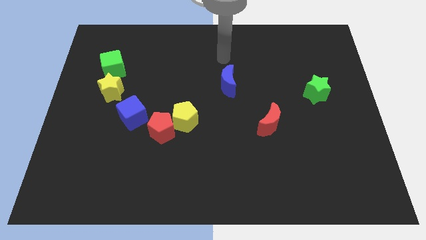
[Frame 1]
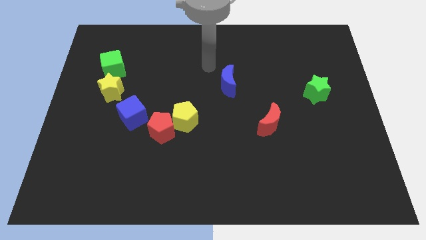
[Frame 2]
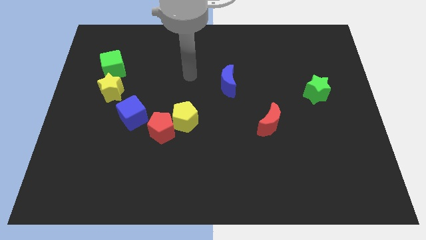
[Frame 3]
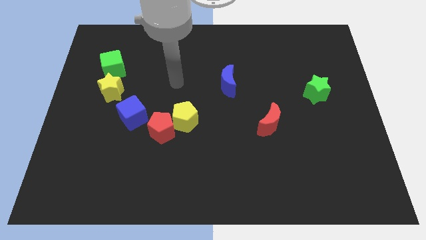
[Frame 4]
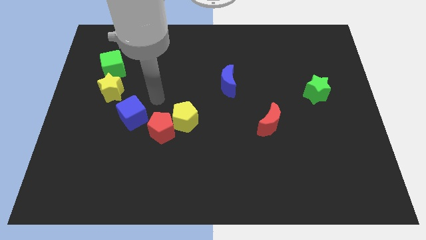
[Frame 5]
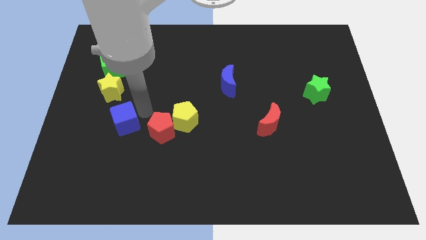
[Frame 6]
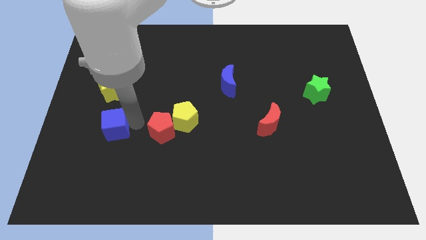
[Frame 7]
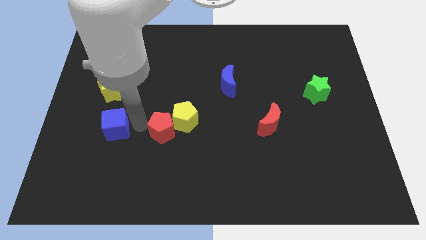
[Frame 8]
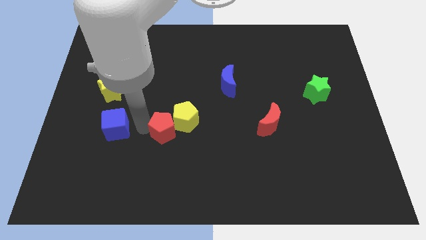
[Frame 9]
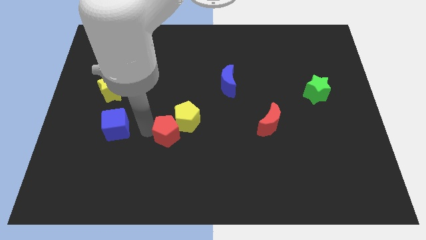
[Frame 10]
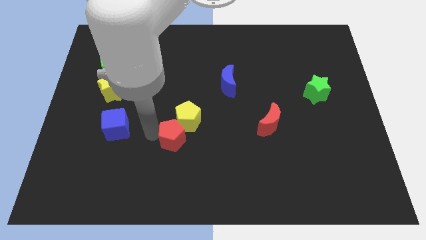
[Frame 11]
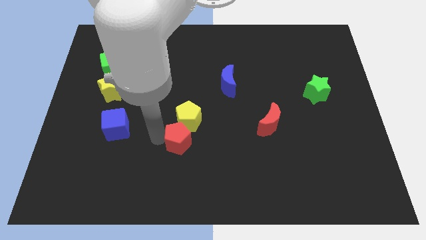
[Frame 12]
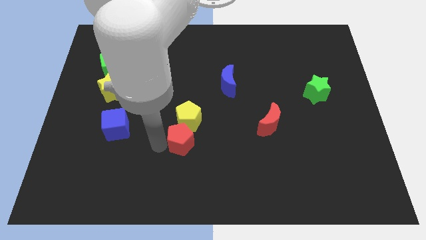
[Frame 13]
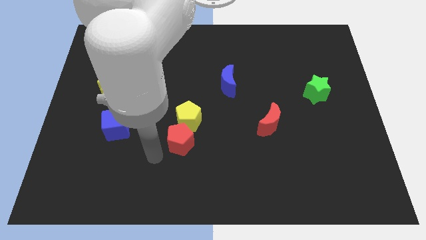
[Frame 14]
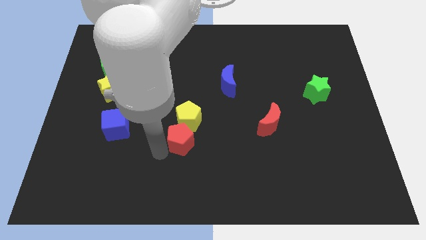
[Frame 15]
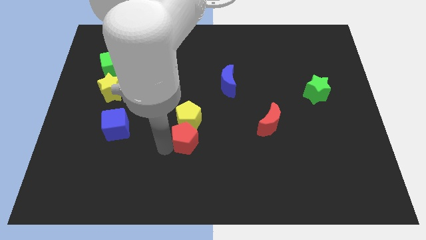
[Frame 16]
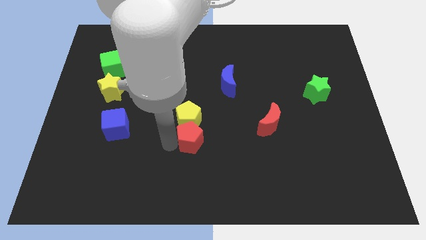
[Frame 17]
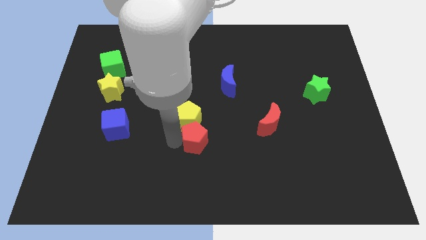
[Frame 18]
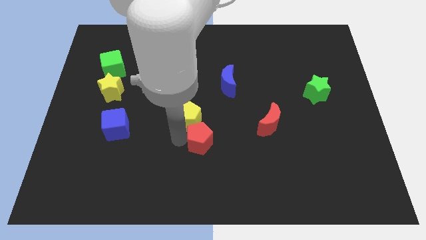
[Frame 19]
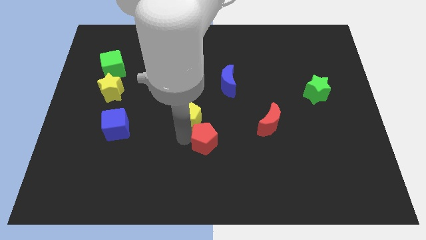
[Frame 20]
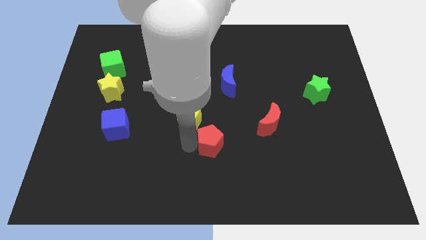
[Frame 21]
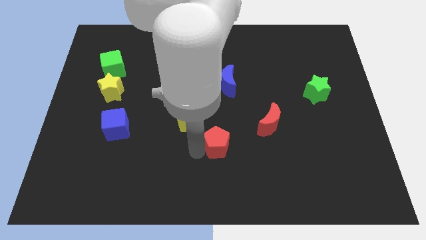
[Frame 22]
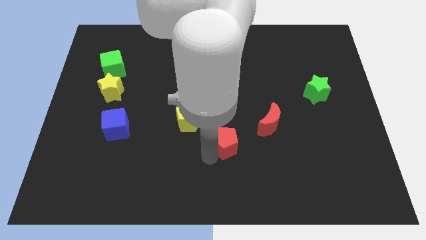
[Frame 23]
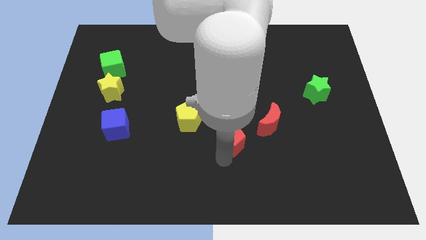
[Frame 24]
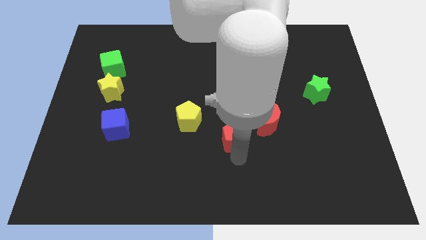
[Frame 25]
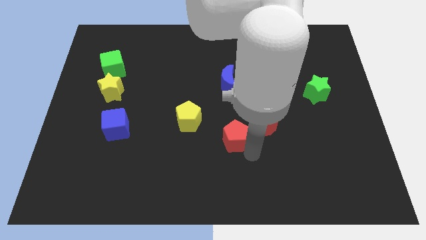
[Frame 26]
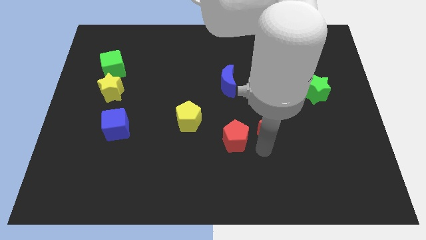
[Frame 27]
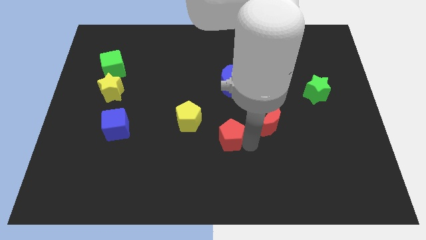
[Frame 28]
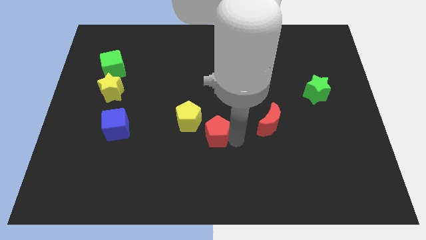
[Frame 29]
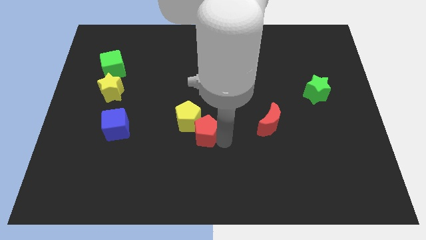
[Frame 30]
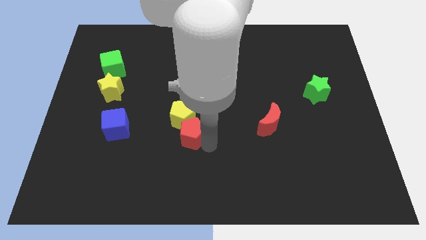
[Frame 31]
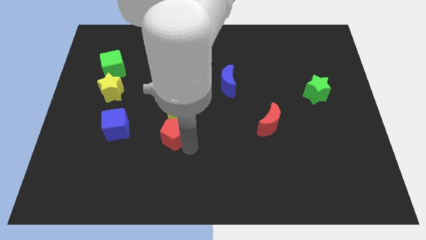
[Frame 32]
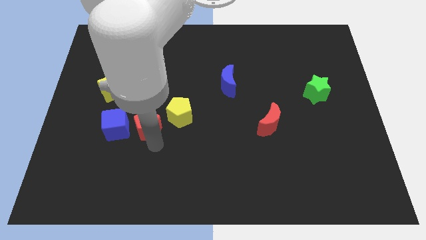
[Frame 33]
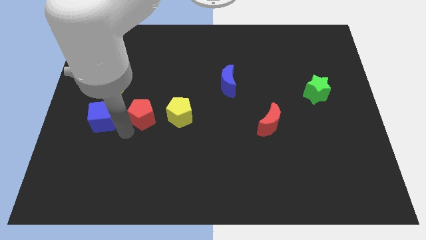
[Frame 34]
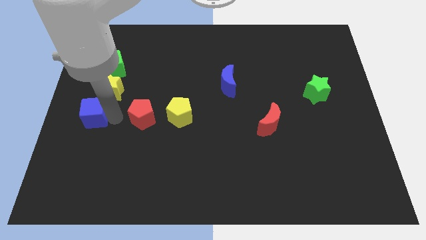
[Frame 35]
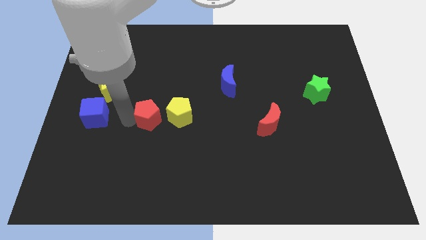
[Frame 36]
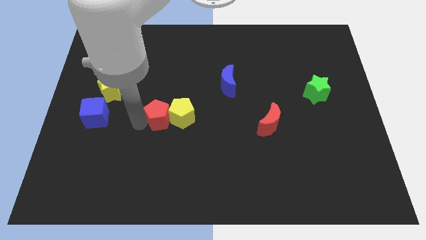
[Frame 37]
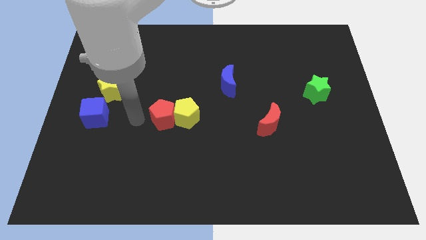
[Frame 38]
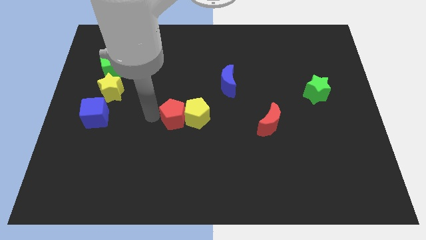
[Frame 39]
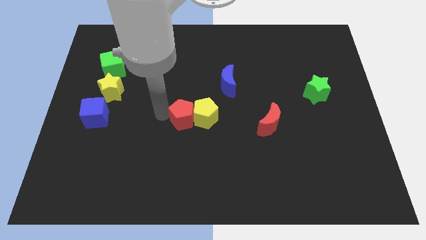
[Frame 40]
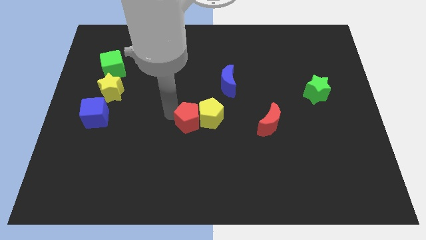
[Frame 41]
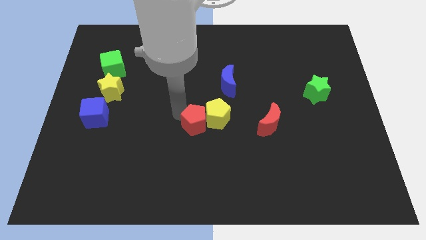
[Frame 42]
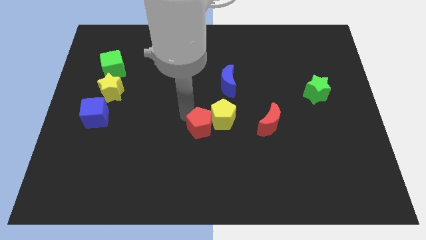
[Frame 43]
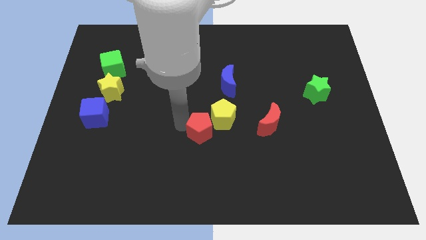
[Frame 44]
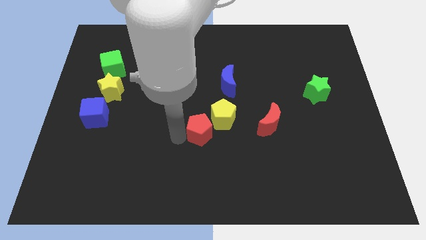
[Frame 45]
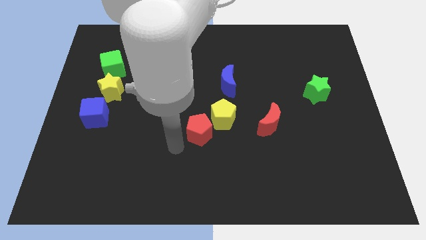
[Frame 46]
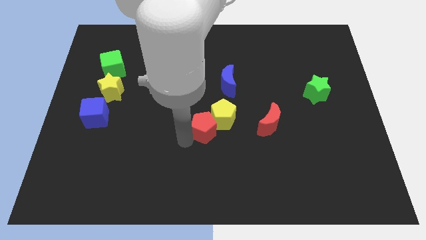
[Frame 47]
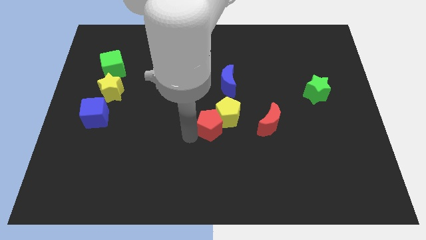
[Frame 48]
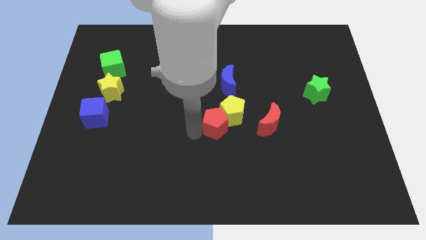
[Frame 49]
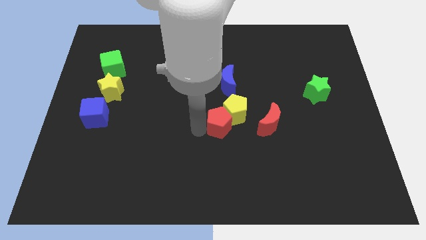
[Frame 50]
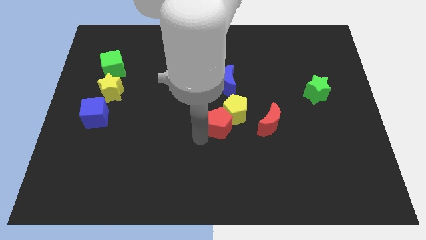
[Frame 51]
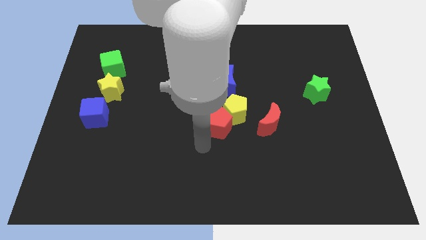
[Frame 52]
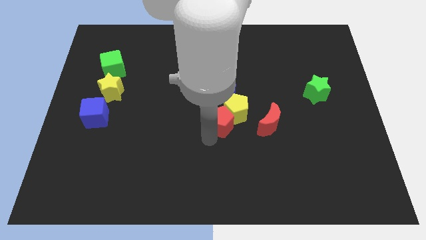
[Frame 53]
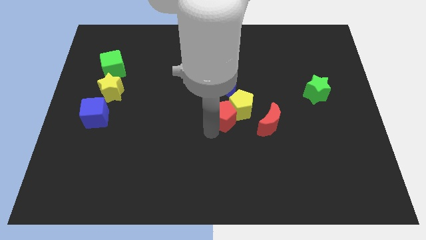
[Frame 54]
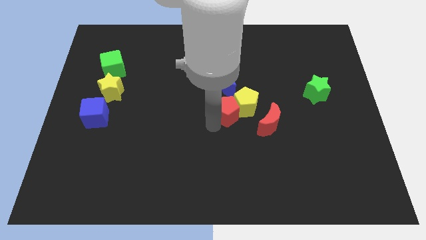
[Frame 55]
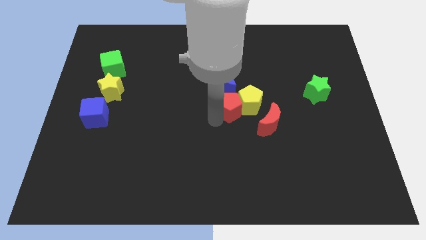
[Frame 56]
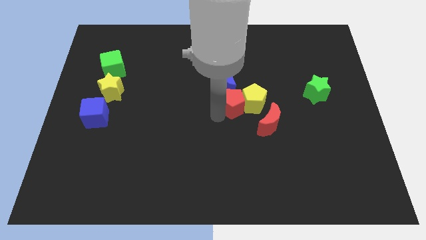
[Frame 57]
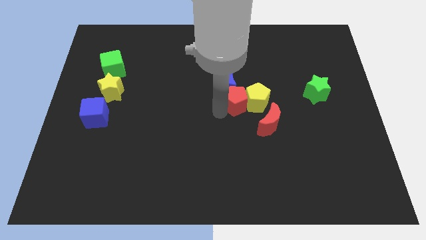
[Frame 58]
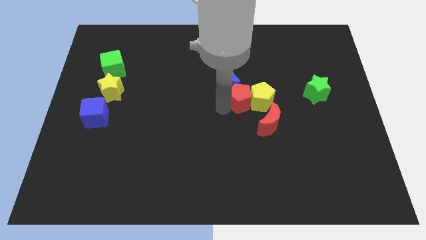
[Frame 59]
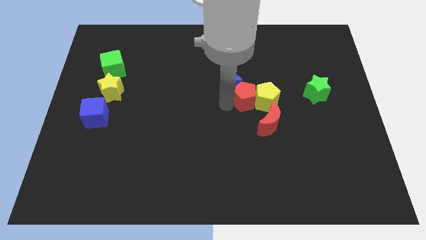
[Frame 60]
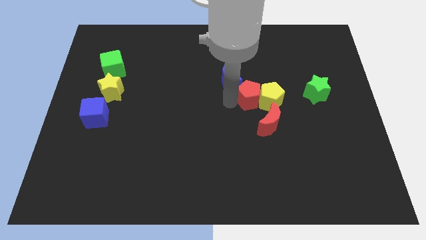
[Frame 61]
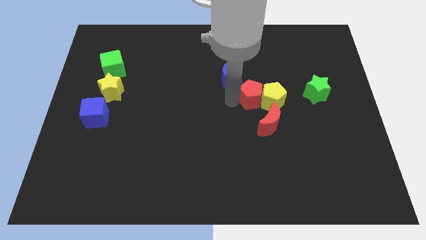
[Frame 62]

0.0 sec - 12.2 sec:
put the red pentagon just left of the green star

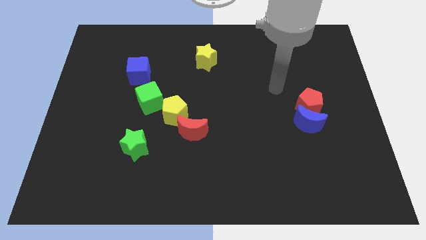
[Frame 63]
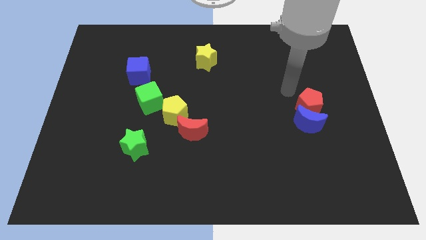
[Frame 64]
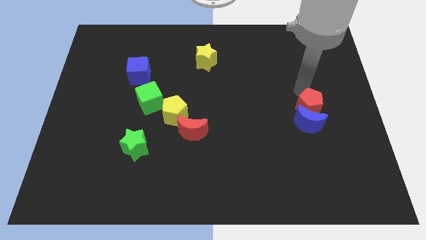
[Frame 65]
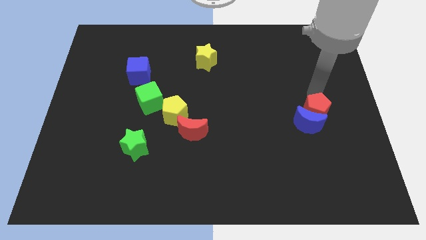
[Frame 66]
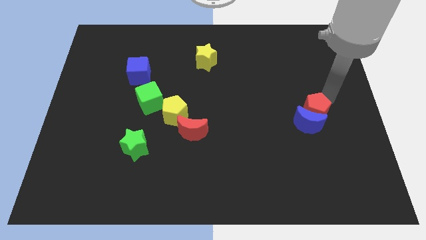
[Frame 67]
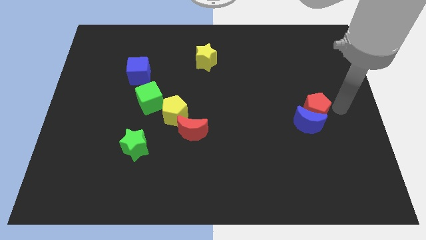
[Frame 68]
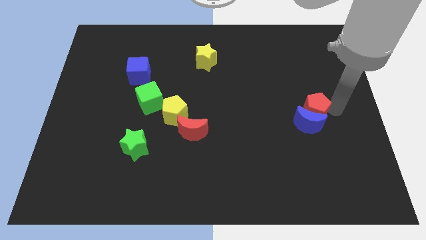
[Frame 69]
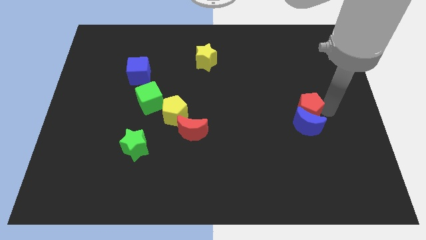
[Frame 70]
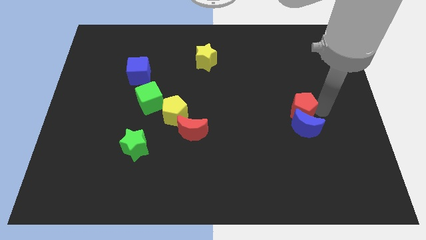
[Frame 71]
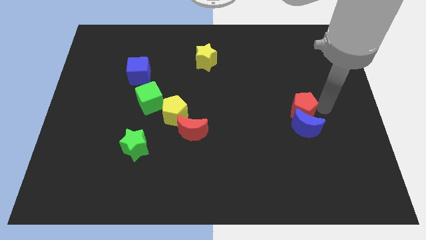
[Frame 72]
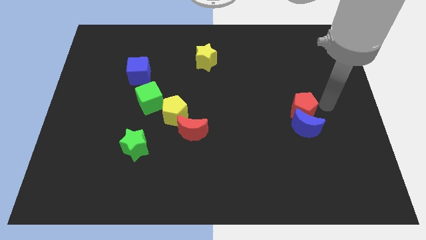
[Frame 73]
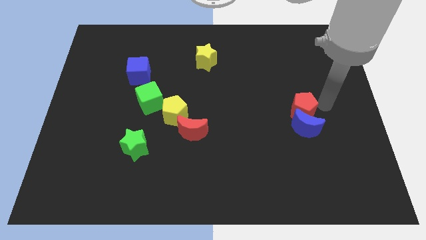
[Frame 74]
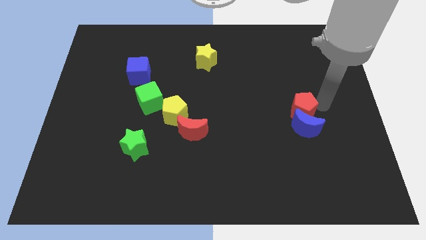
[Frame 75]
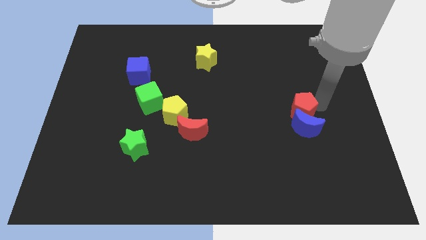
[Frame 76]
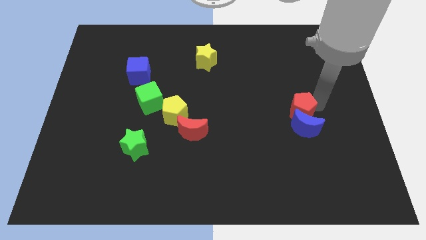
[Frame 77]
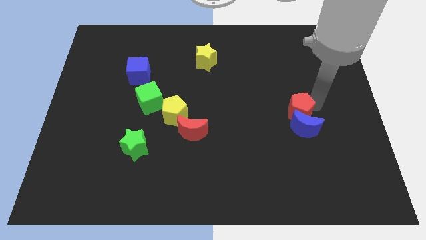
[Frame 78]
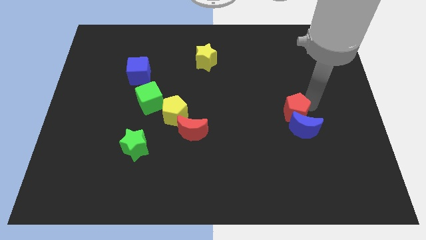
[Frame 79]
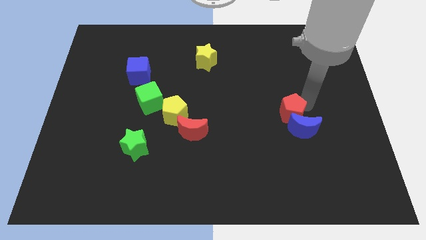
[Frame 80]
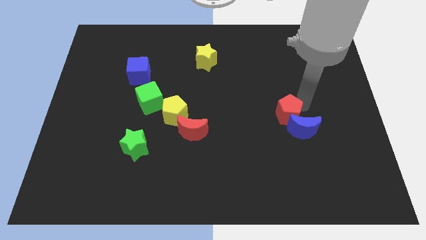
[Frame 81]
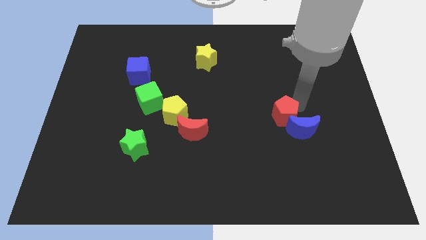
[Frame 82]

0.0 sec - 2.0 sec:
move the red pentagon to the left side of the blue moon
